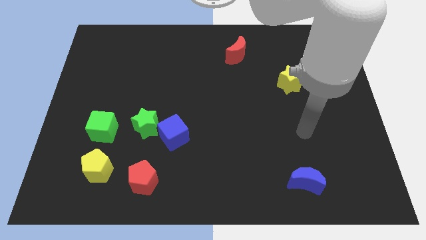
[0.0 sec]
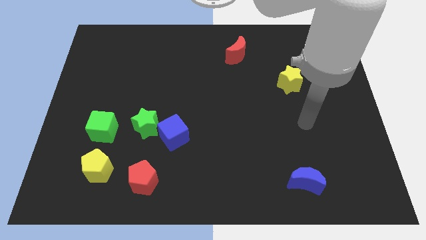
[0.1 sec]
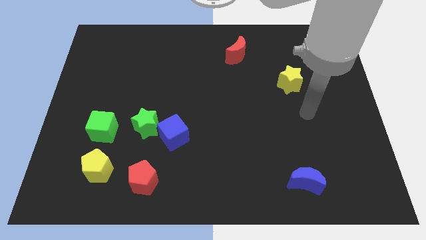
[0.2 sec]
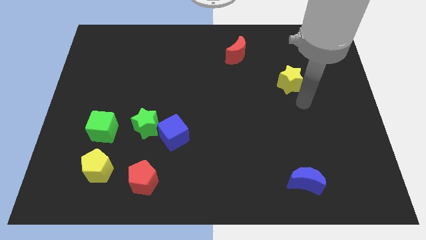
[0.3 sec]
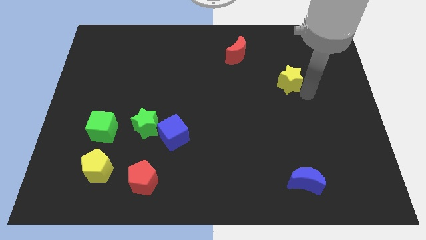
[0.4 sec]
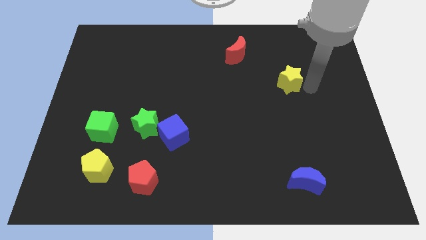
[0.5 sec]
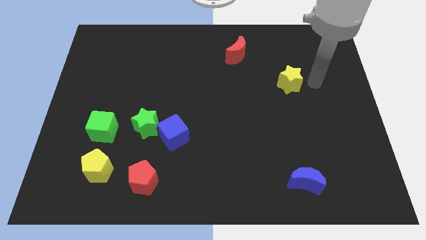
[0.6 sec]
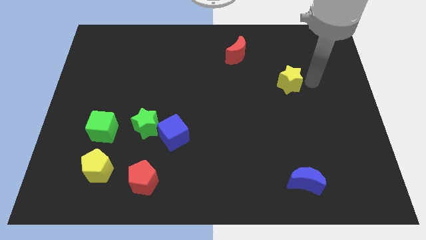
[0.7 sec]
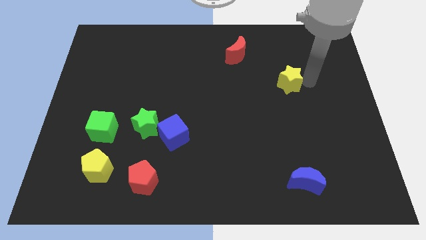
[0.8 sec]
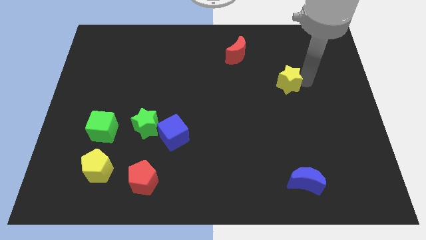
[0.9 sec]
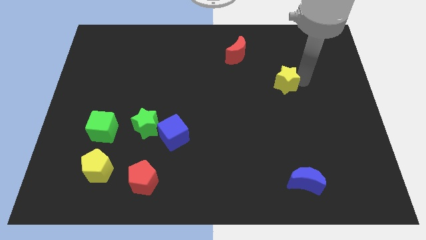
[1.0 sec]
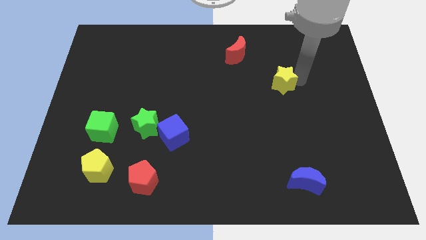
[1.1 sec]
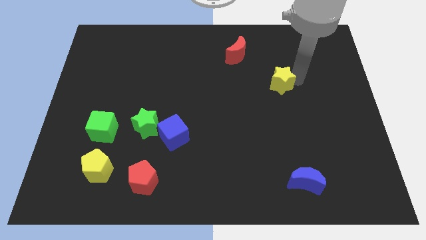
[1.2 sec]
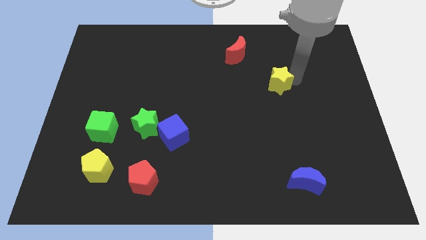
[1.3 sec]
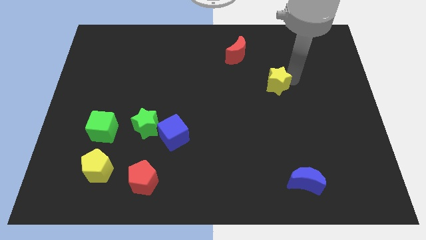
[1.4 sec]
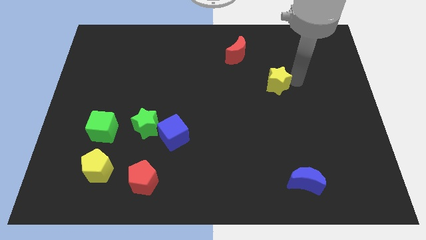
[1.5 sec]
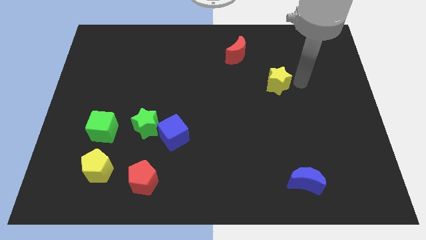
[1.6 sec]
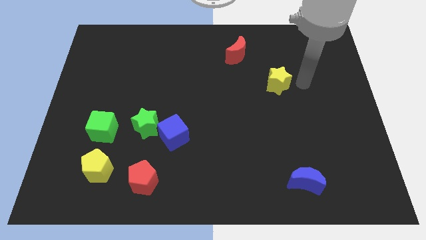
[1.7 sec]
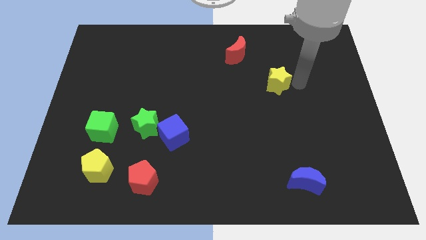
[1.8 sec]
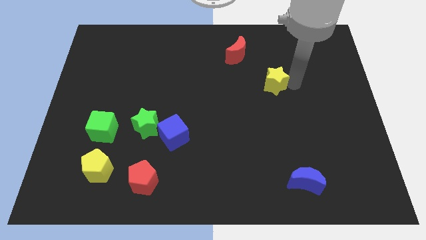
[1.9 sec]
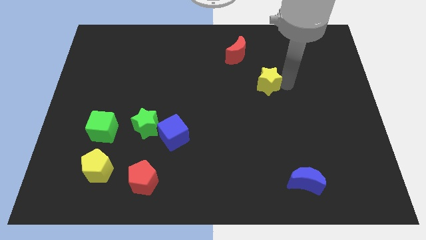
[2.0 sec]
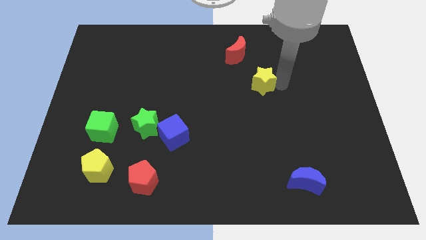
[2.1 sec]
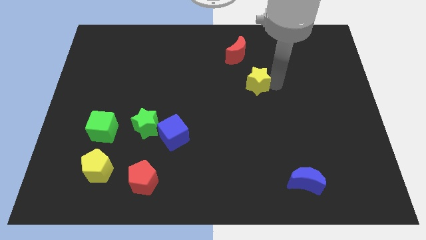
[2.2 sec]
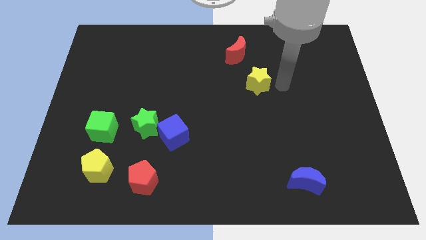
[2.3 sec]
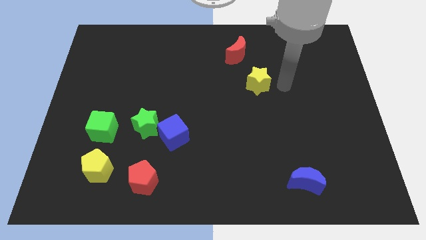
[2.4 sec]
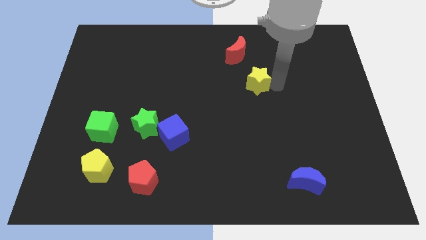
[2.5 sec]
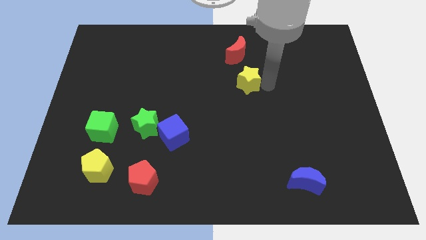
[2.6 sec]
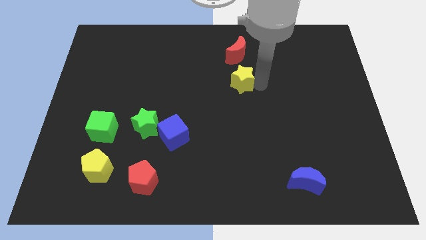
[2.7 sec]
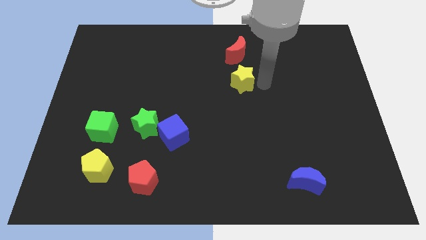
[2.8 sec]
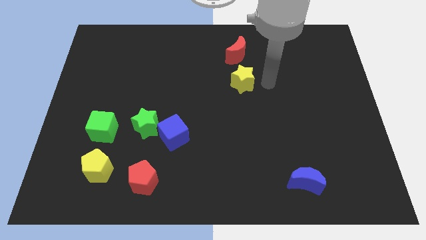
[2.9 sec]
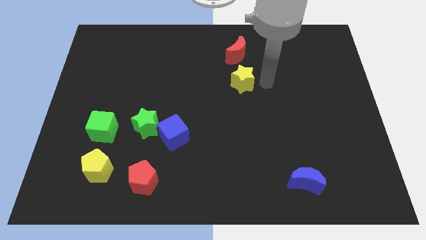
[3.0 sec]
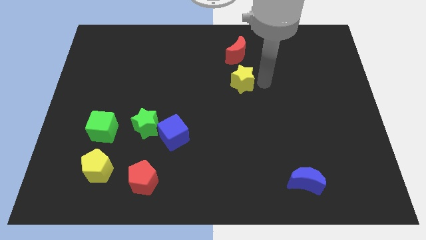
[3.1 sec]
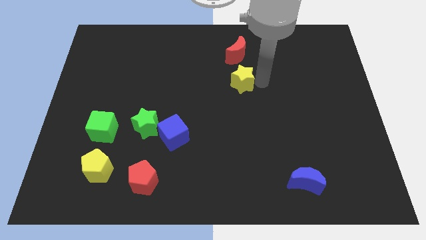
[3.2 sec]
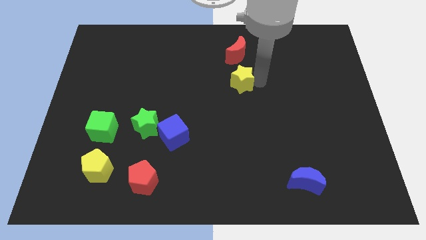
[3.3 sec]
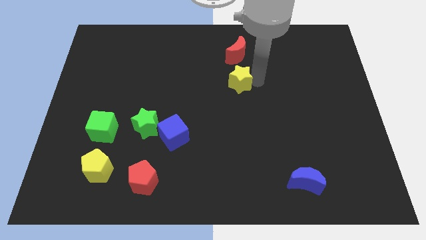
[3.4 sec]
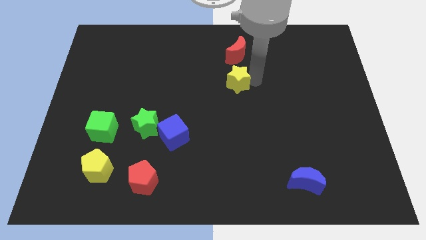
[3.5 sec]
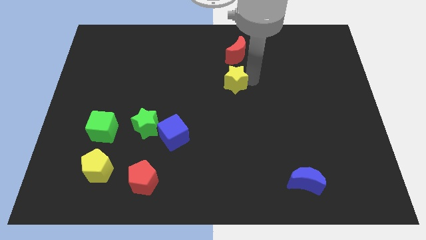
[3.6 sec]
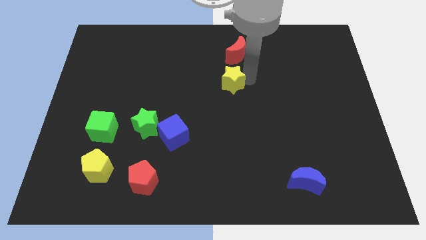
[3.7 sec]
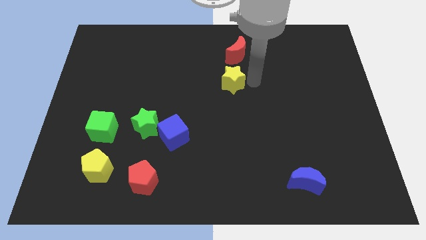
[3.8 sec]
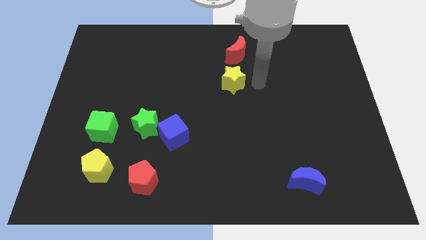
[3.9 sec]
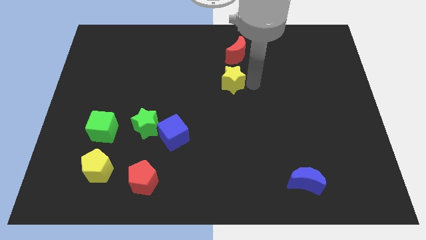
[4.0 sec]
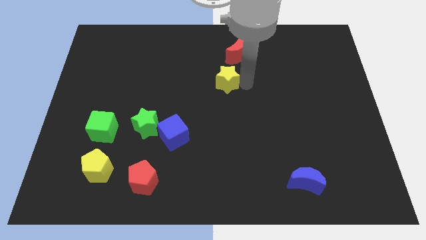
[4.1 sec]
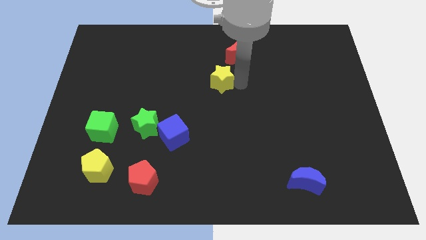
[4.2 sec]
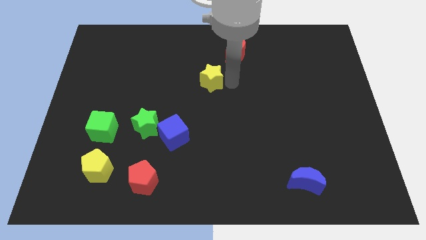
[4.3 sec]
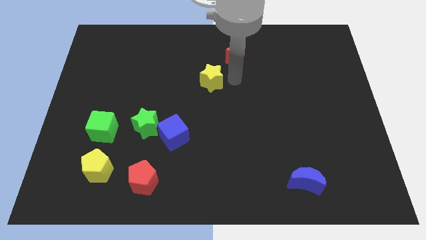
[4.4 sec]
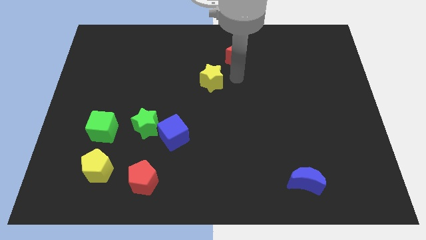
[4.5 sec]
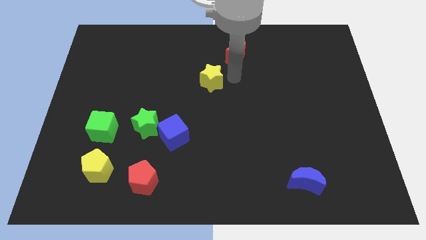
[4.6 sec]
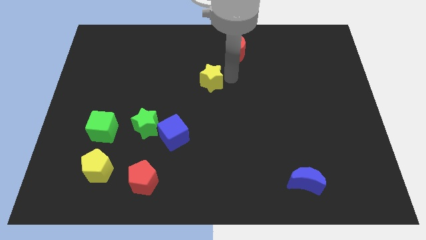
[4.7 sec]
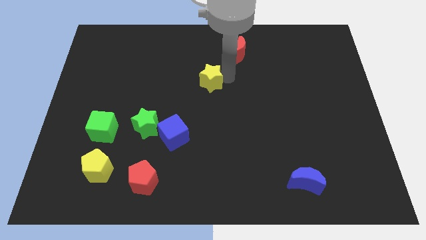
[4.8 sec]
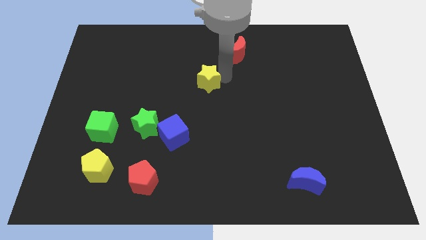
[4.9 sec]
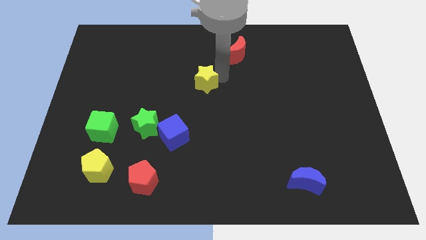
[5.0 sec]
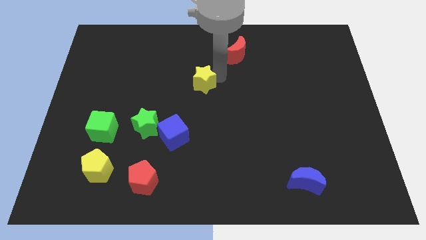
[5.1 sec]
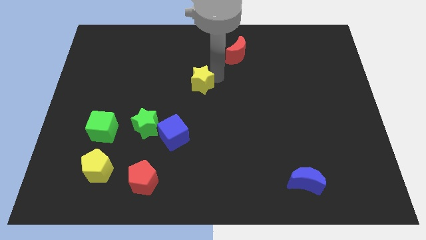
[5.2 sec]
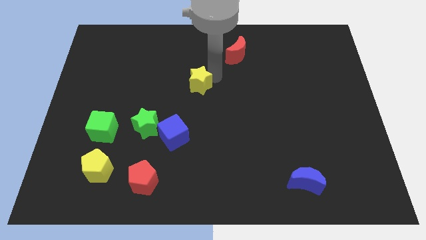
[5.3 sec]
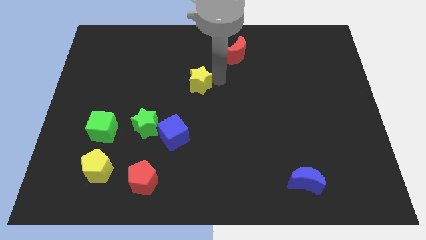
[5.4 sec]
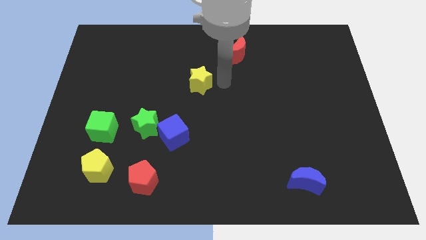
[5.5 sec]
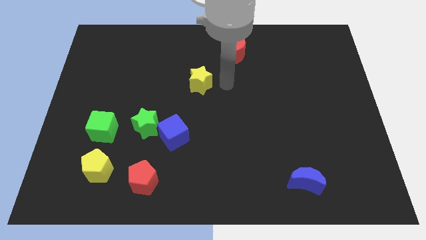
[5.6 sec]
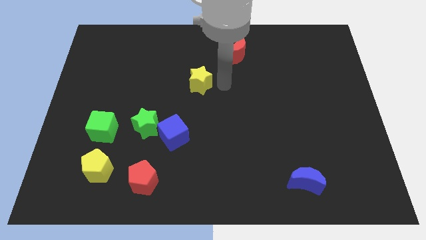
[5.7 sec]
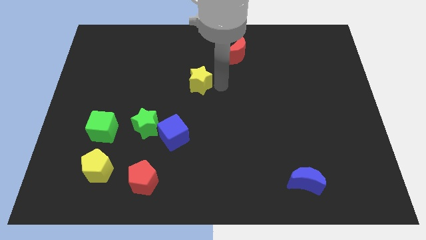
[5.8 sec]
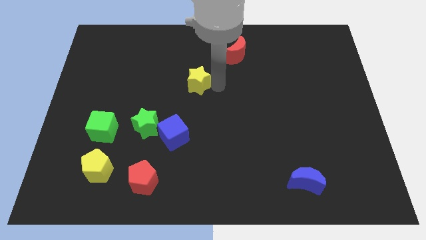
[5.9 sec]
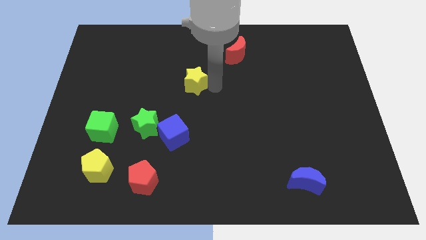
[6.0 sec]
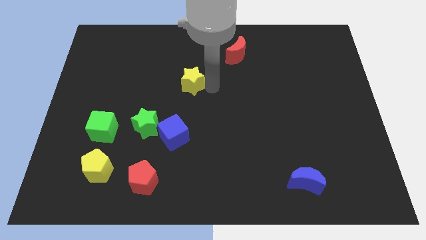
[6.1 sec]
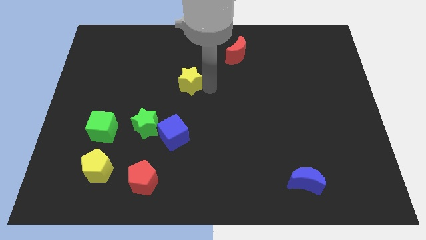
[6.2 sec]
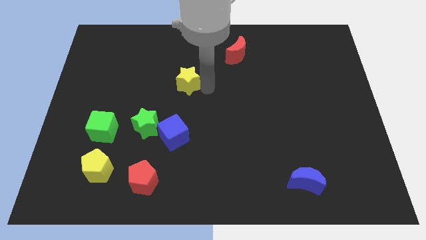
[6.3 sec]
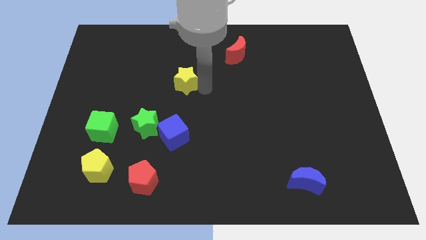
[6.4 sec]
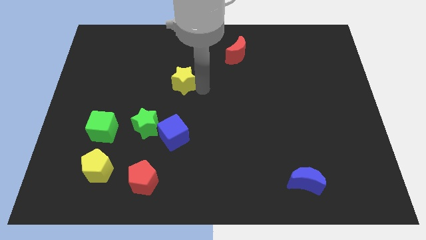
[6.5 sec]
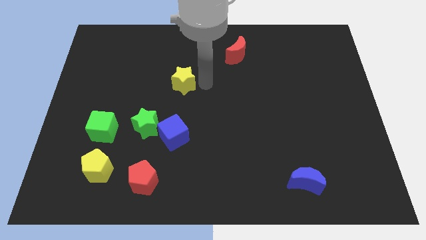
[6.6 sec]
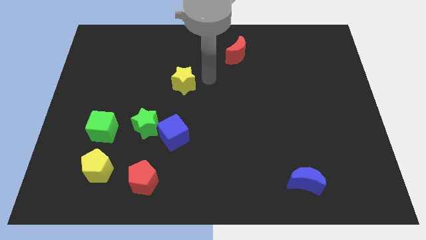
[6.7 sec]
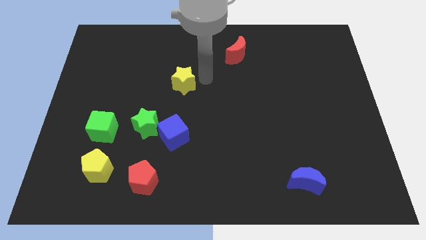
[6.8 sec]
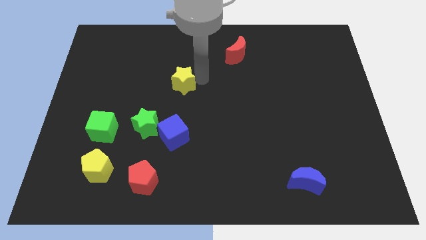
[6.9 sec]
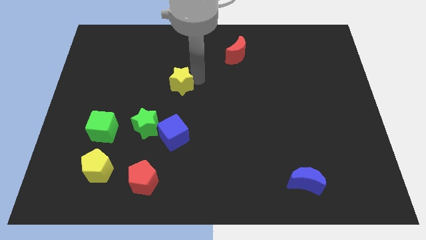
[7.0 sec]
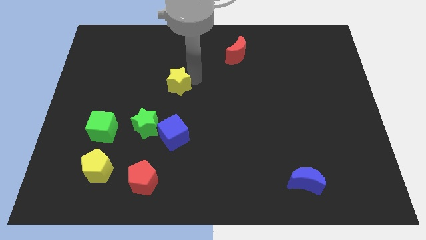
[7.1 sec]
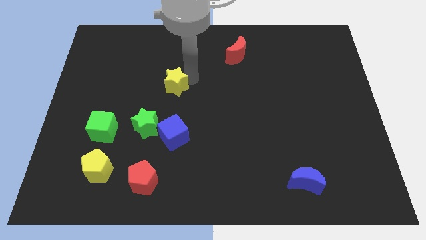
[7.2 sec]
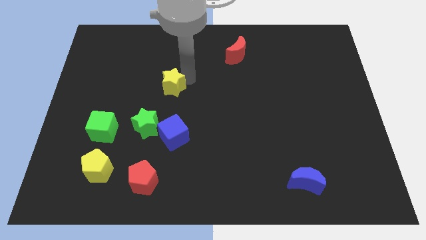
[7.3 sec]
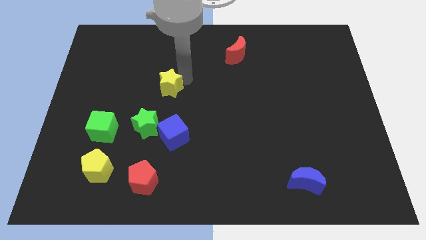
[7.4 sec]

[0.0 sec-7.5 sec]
slide the yellow star to the top side of the green star
